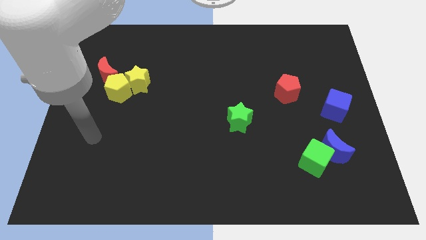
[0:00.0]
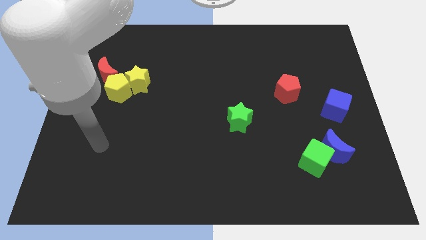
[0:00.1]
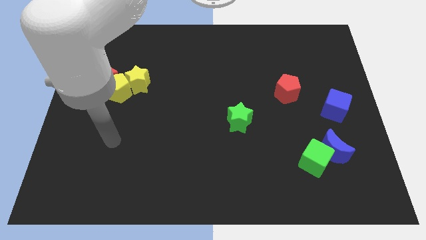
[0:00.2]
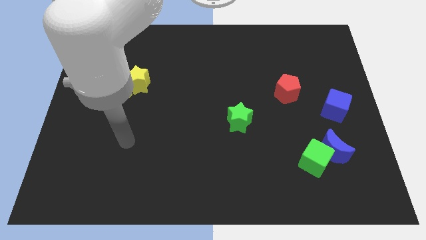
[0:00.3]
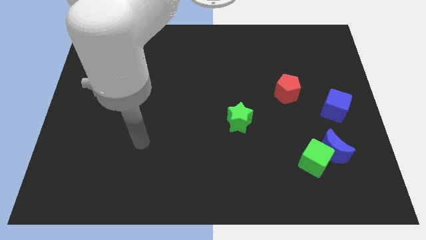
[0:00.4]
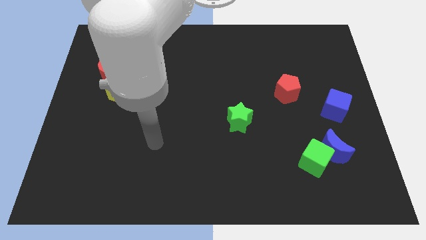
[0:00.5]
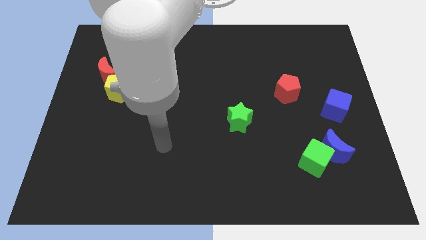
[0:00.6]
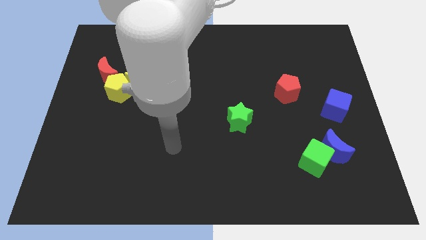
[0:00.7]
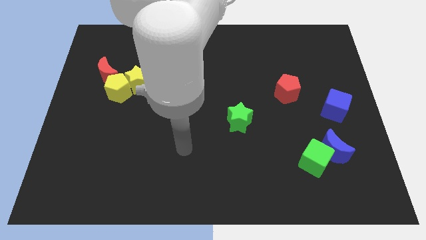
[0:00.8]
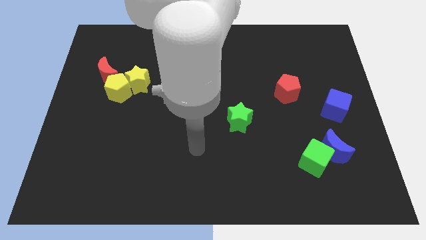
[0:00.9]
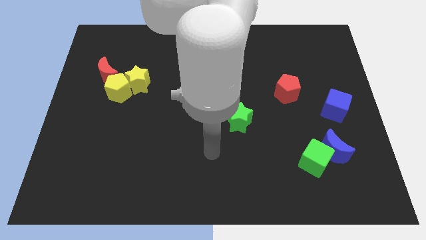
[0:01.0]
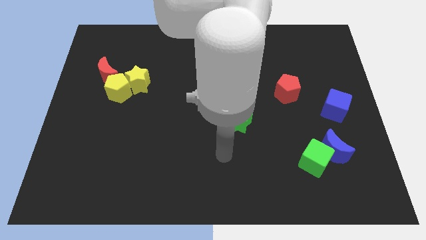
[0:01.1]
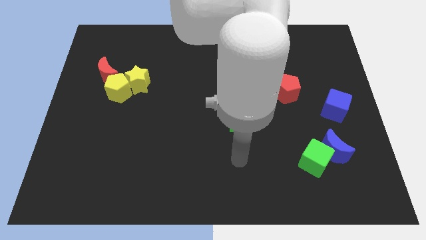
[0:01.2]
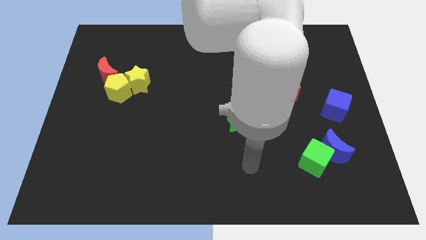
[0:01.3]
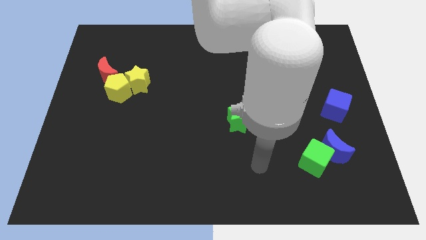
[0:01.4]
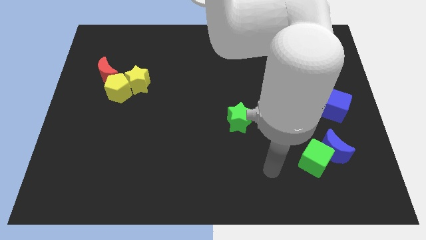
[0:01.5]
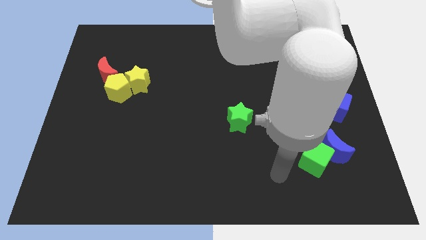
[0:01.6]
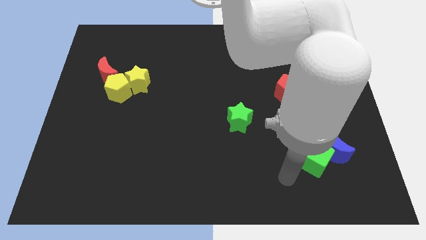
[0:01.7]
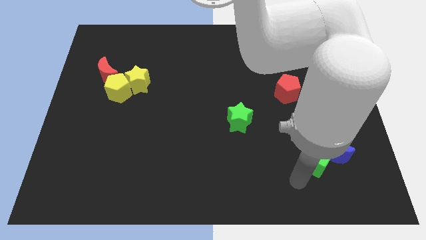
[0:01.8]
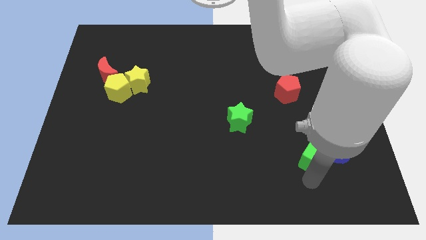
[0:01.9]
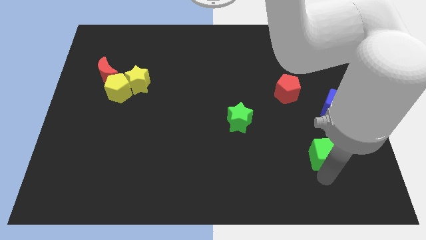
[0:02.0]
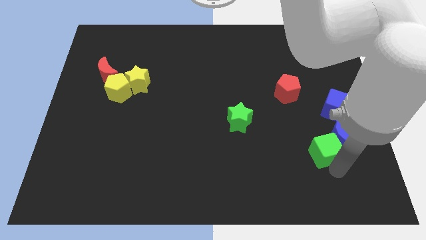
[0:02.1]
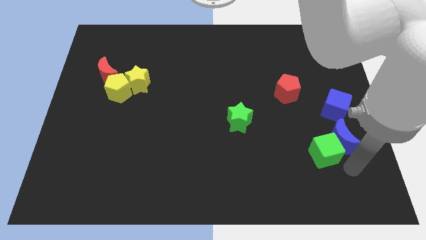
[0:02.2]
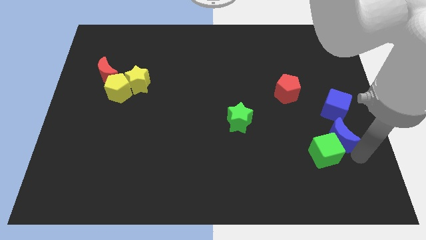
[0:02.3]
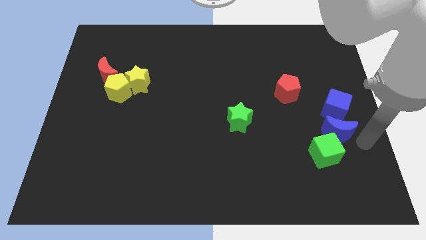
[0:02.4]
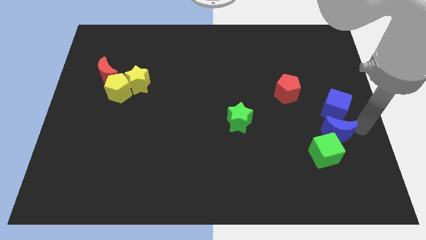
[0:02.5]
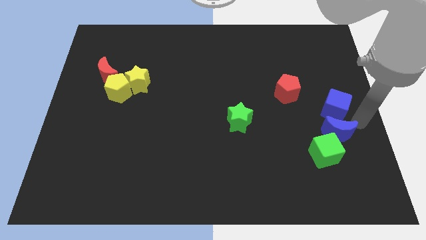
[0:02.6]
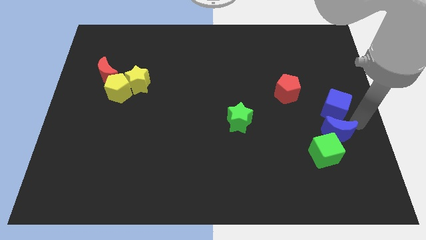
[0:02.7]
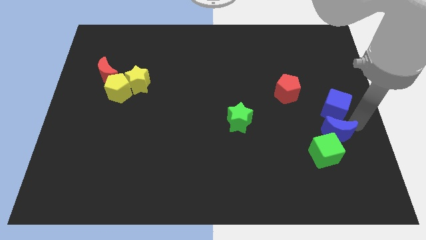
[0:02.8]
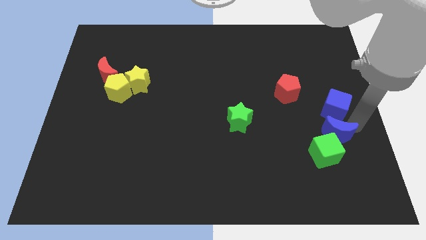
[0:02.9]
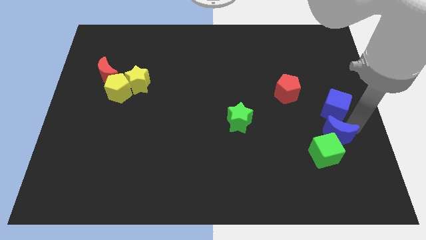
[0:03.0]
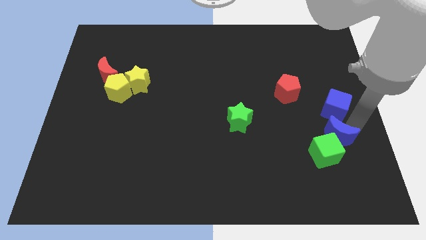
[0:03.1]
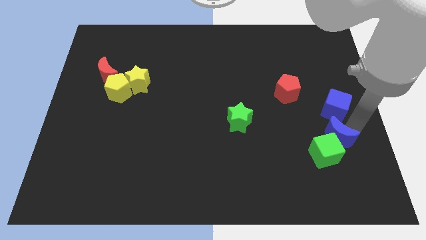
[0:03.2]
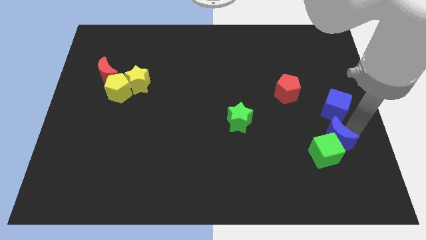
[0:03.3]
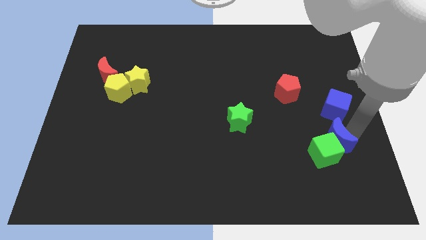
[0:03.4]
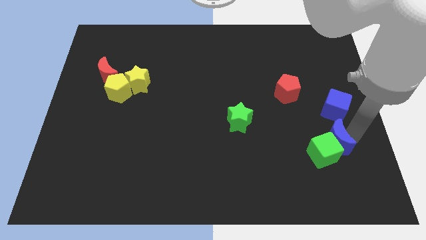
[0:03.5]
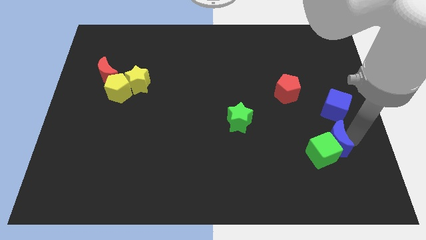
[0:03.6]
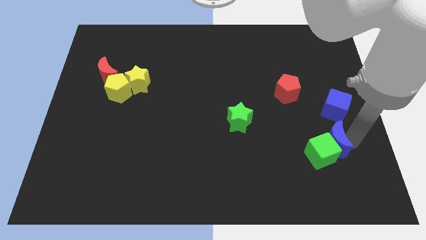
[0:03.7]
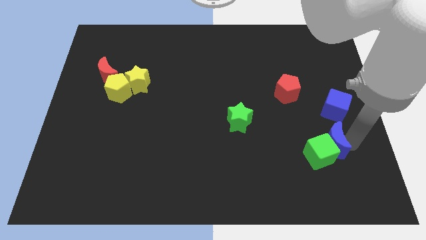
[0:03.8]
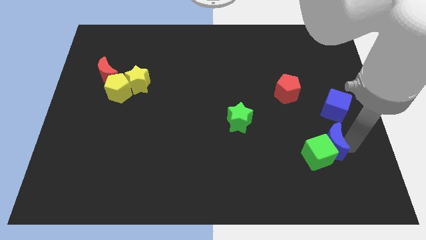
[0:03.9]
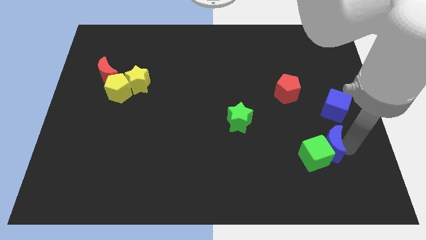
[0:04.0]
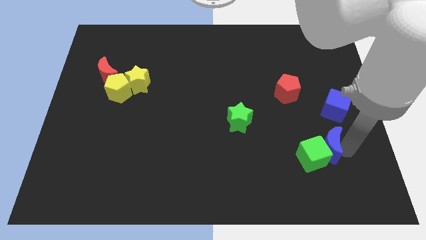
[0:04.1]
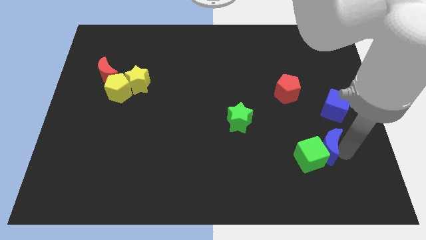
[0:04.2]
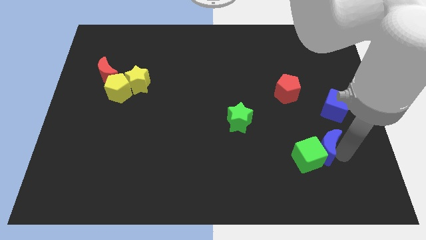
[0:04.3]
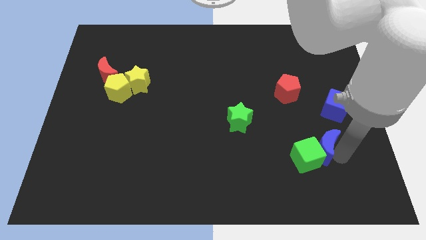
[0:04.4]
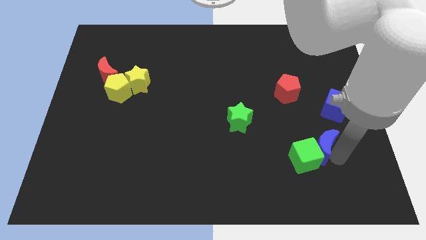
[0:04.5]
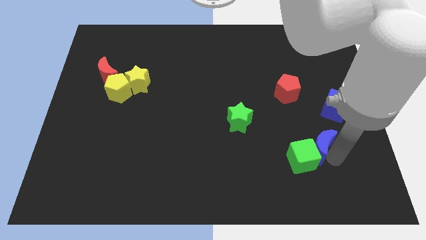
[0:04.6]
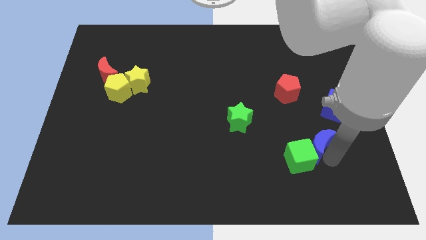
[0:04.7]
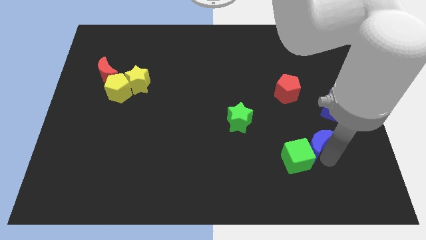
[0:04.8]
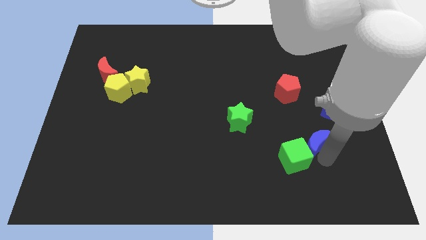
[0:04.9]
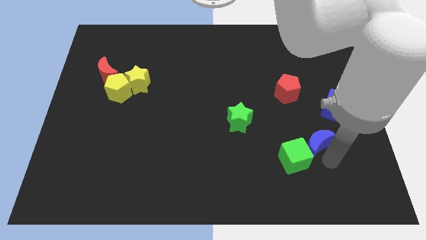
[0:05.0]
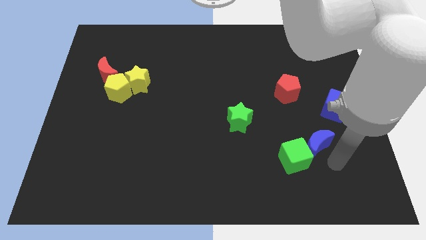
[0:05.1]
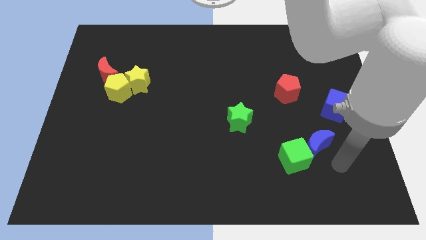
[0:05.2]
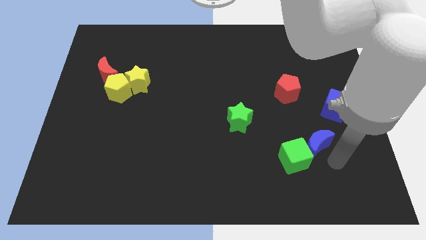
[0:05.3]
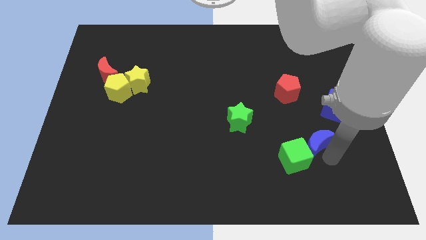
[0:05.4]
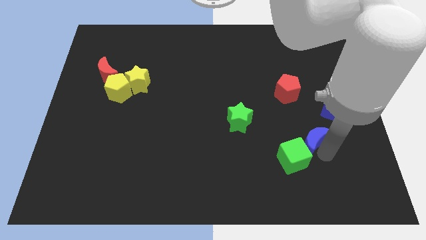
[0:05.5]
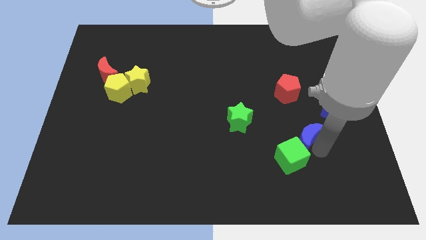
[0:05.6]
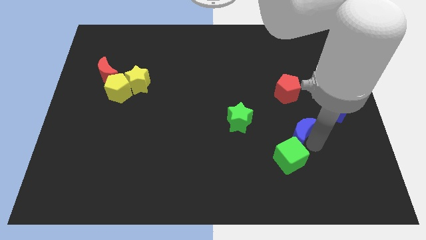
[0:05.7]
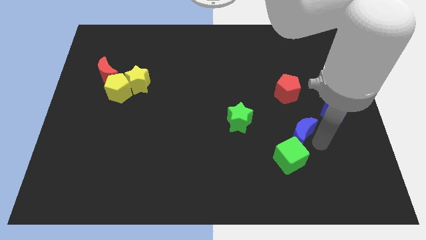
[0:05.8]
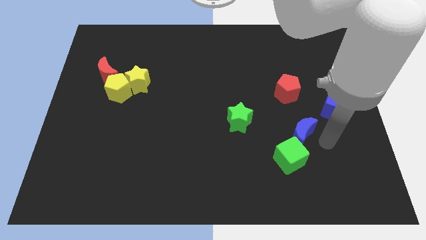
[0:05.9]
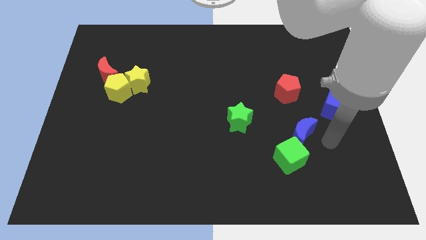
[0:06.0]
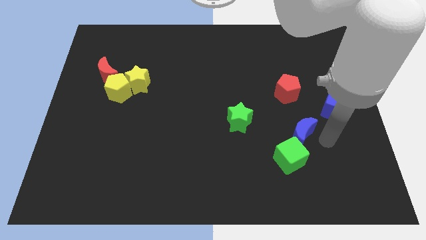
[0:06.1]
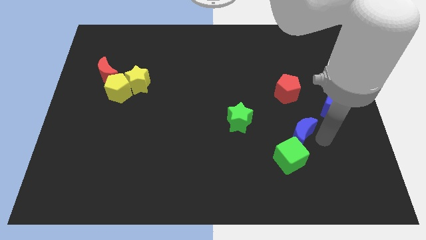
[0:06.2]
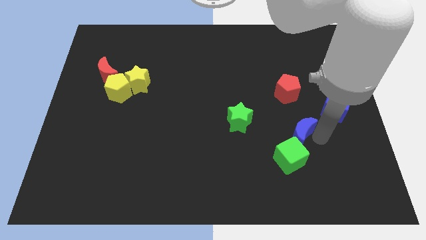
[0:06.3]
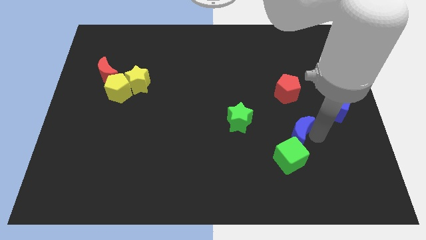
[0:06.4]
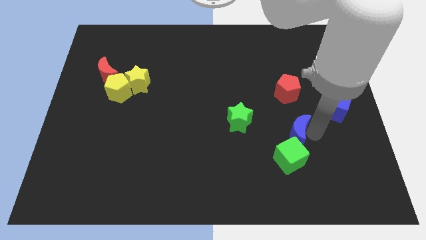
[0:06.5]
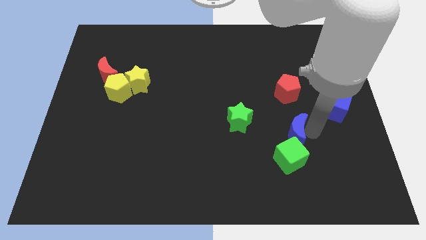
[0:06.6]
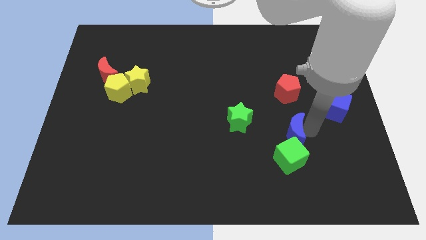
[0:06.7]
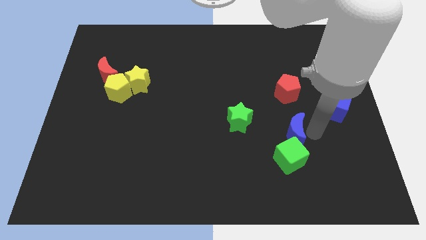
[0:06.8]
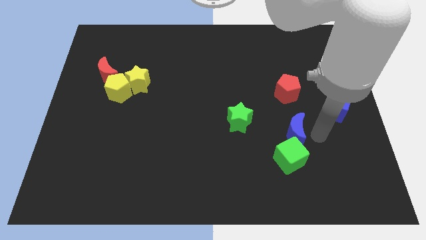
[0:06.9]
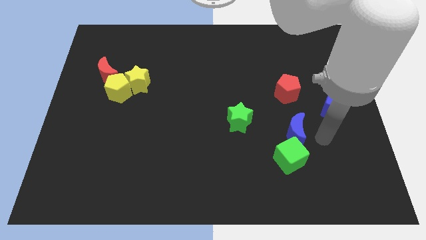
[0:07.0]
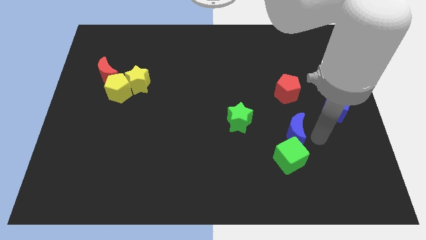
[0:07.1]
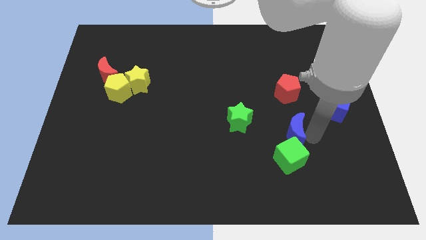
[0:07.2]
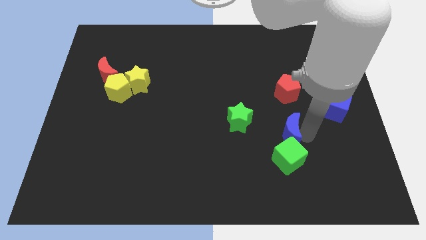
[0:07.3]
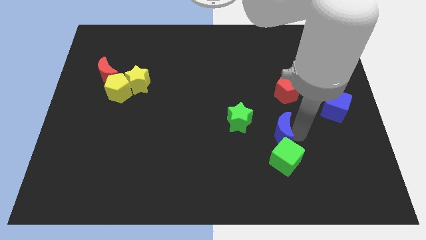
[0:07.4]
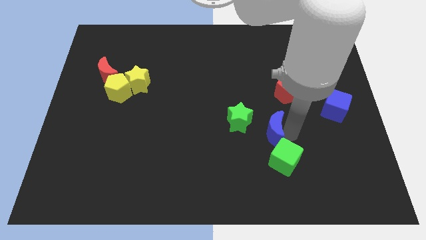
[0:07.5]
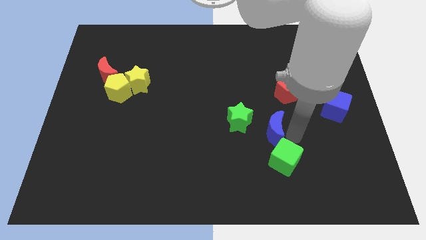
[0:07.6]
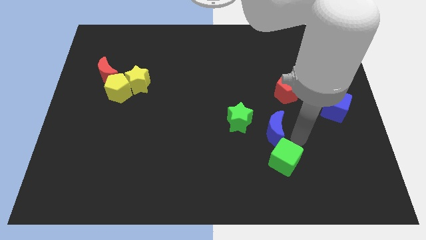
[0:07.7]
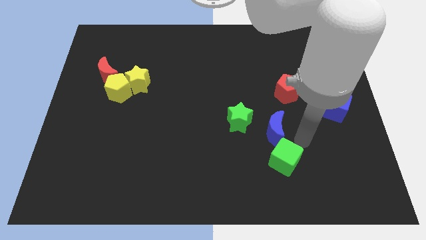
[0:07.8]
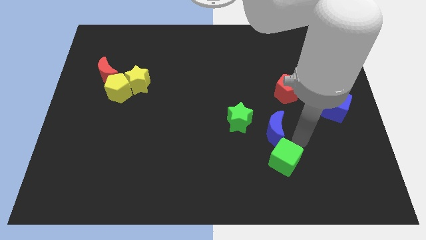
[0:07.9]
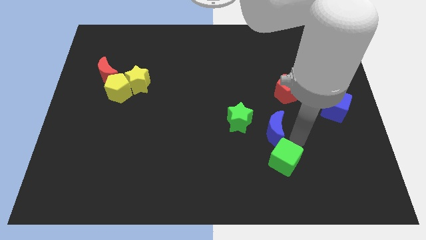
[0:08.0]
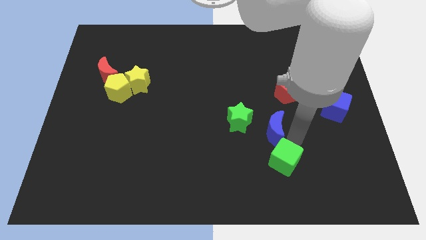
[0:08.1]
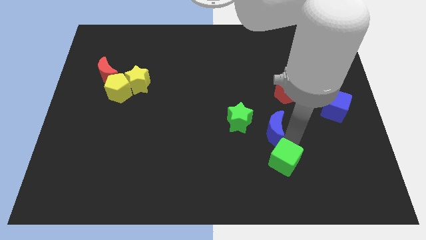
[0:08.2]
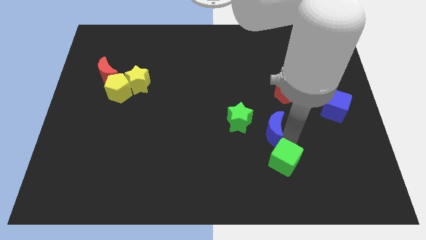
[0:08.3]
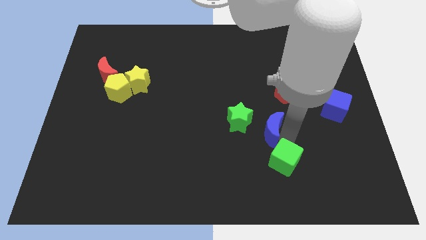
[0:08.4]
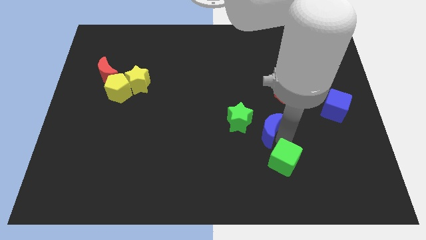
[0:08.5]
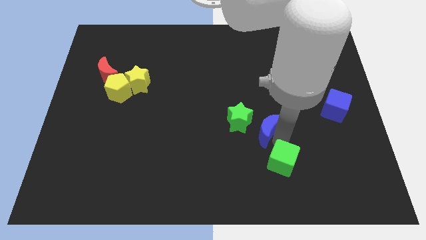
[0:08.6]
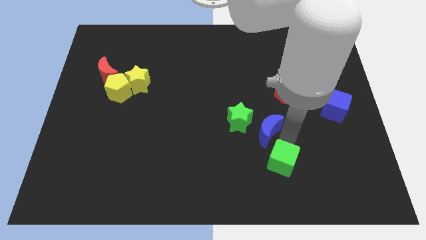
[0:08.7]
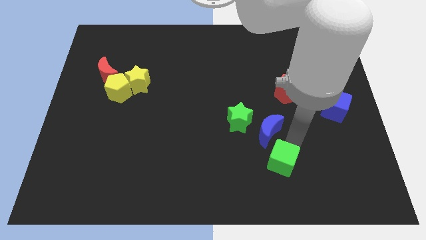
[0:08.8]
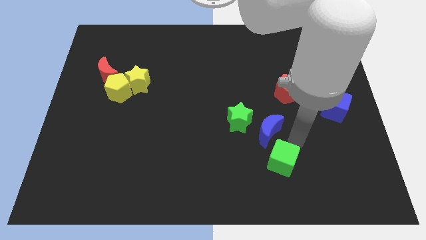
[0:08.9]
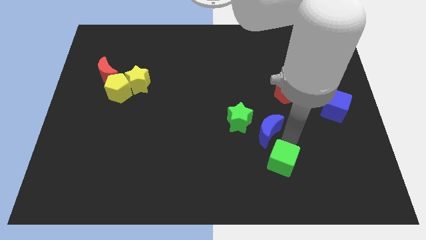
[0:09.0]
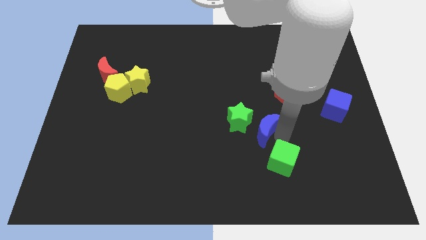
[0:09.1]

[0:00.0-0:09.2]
slide the blue moon towards the green star
